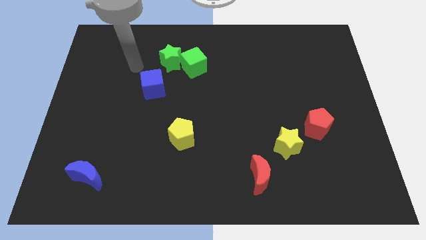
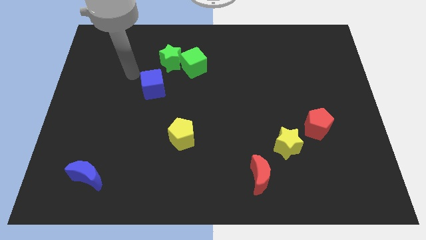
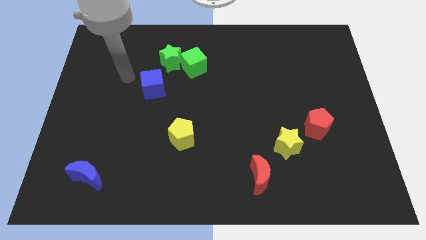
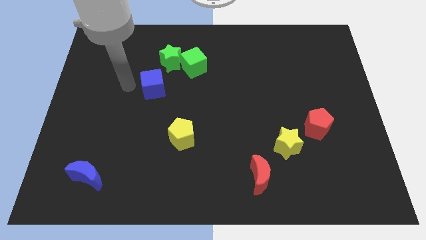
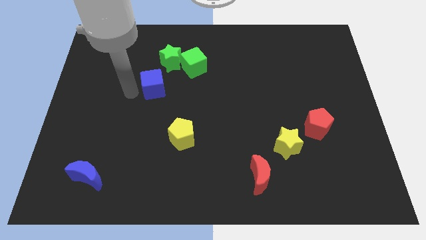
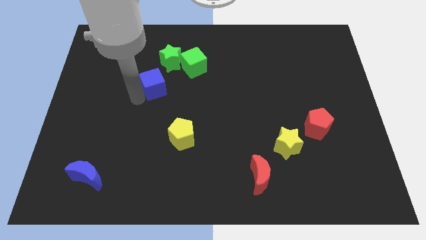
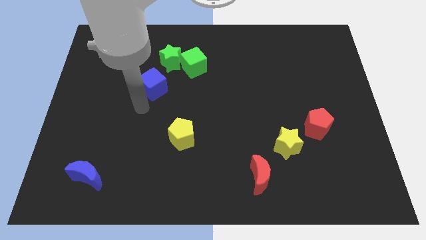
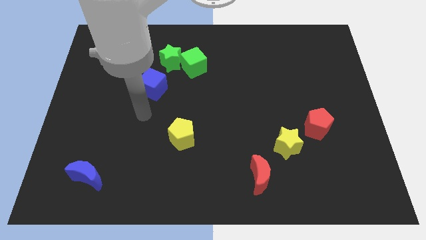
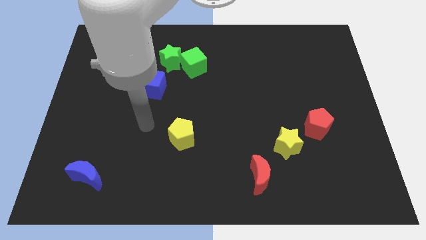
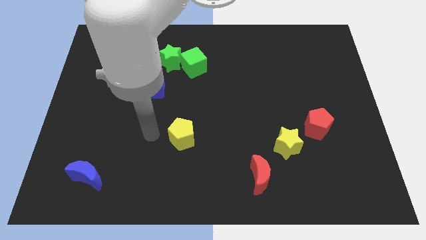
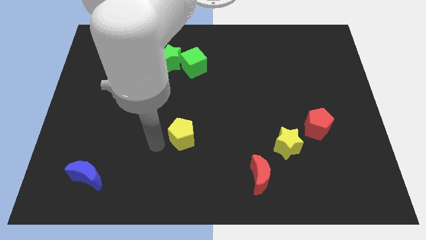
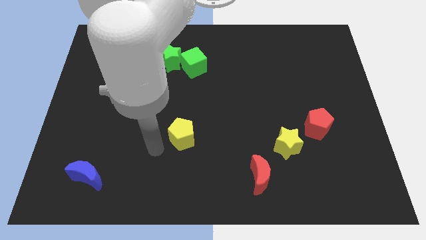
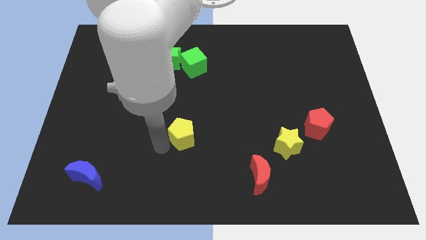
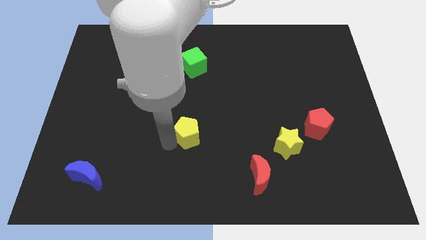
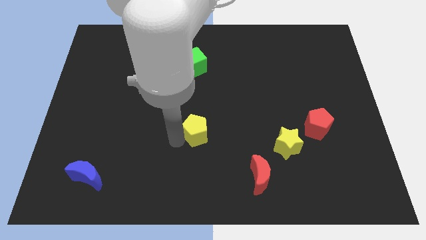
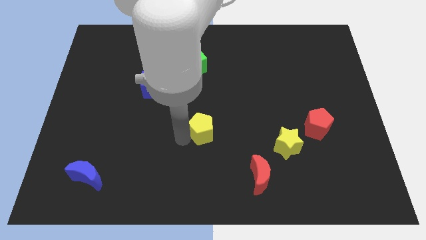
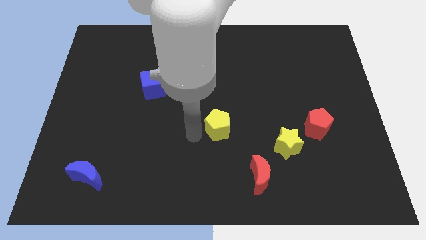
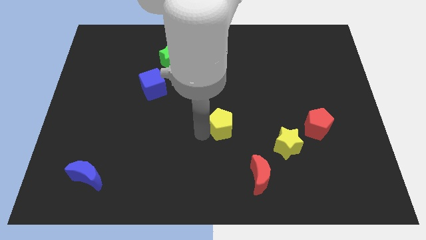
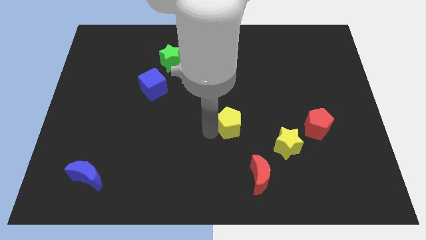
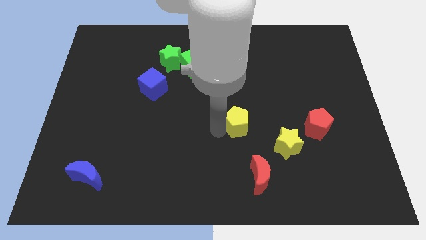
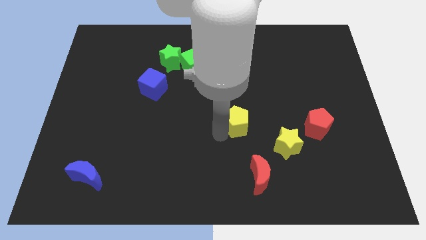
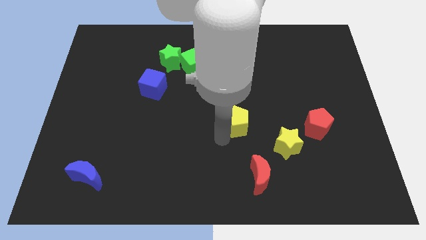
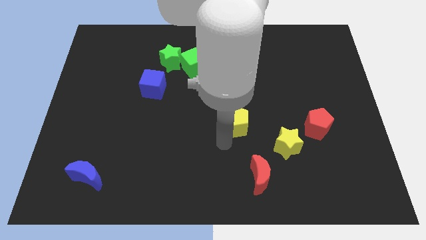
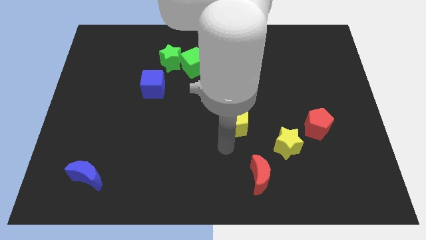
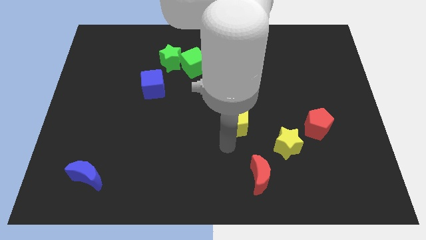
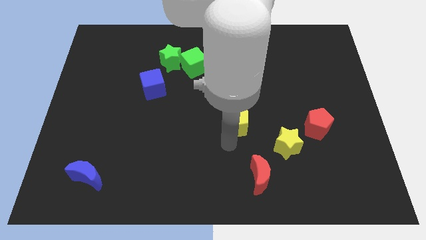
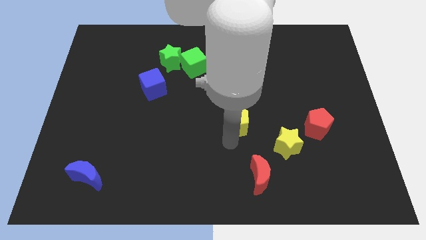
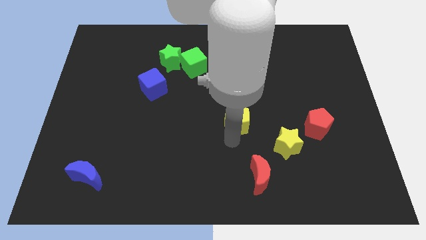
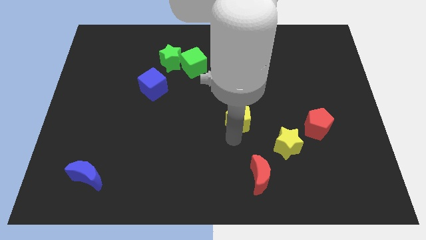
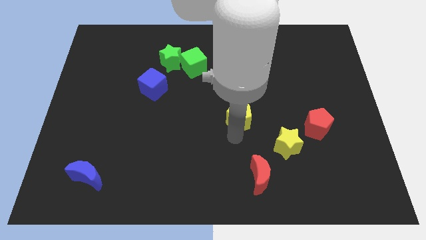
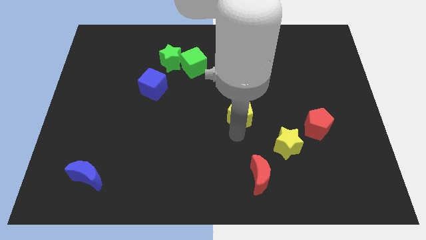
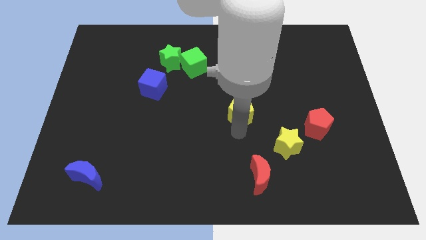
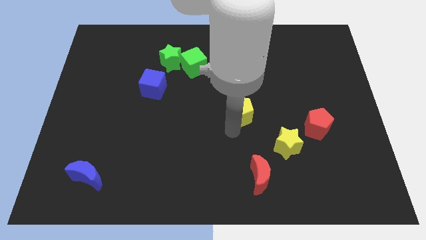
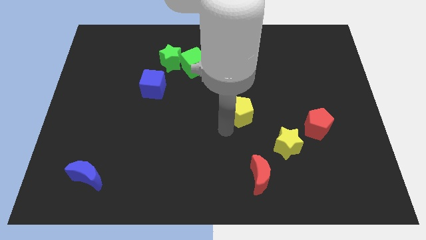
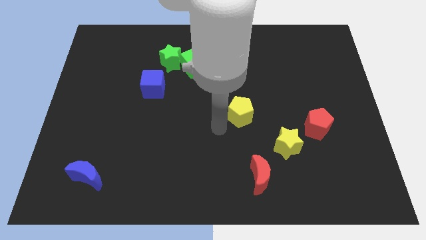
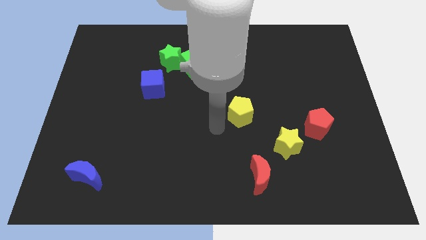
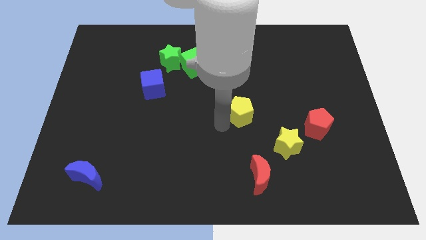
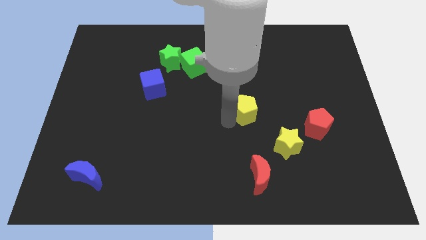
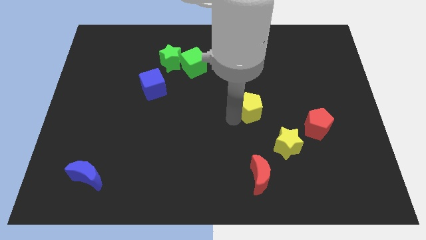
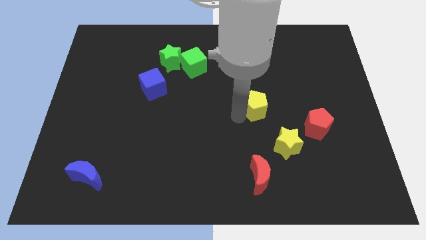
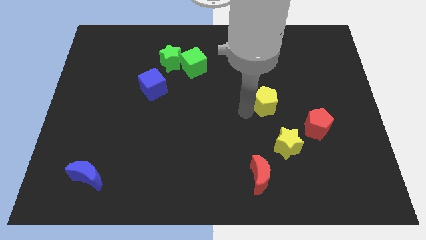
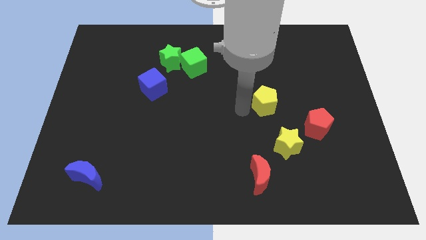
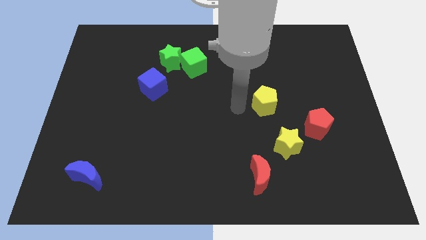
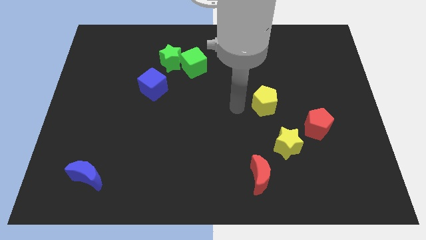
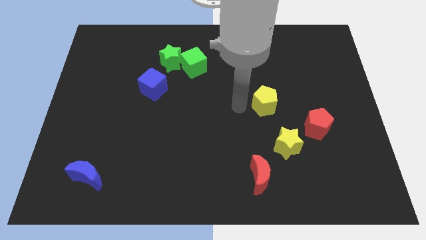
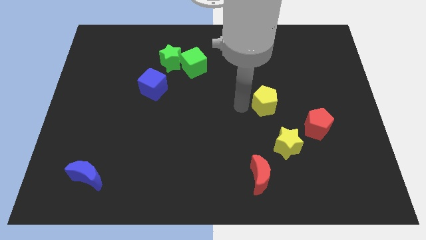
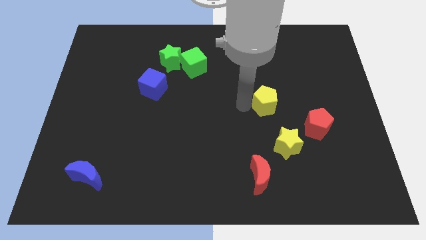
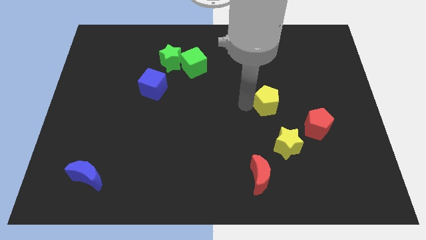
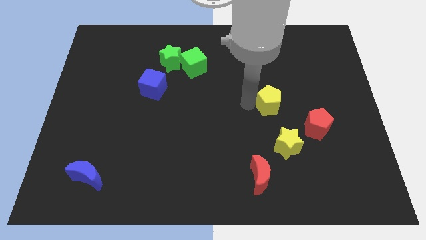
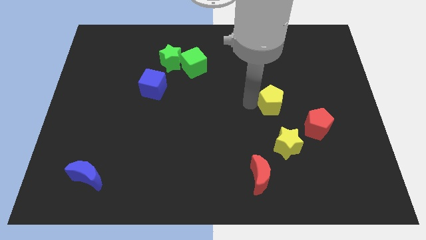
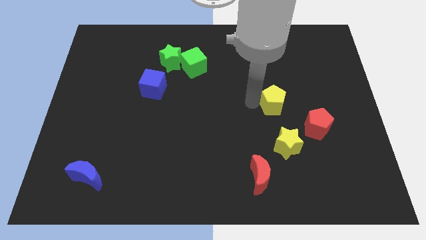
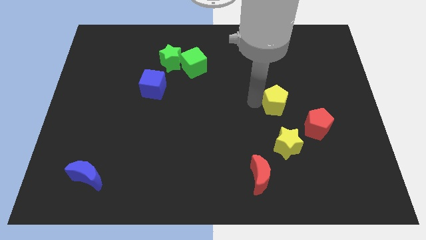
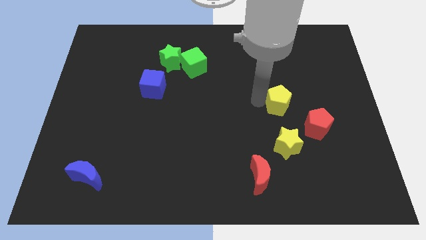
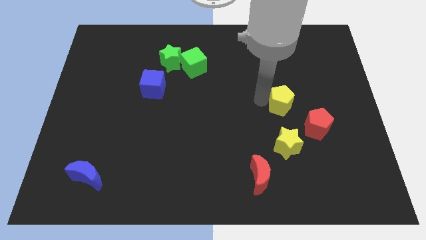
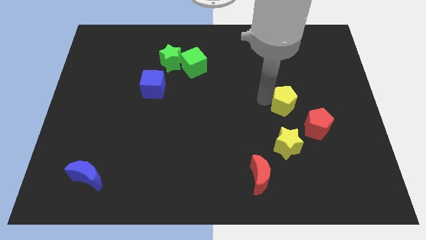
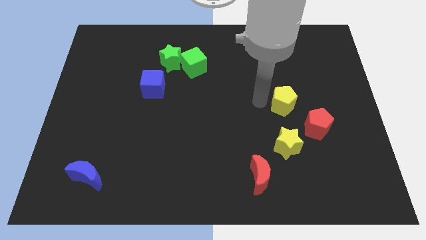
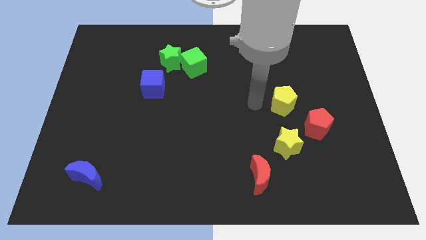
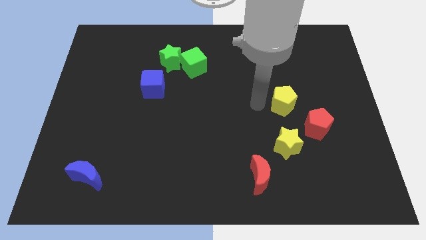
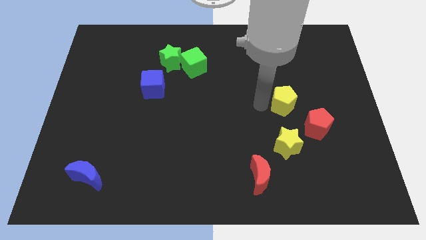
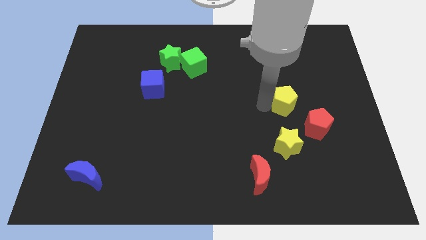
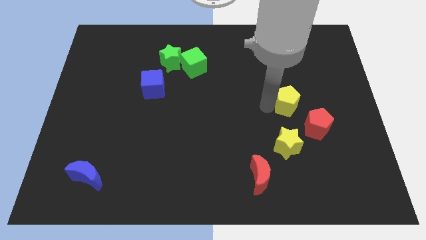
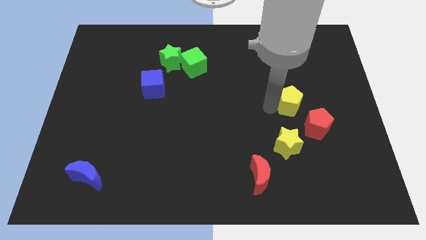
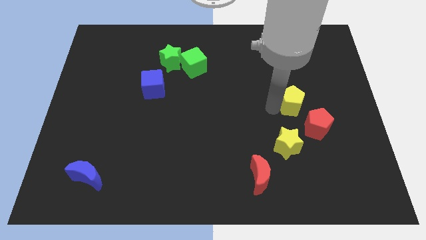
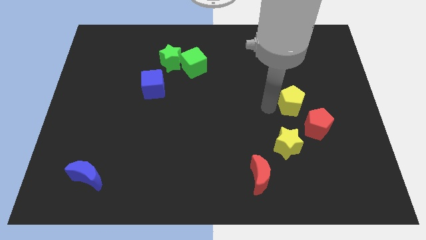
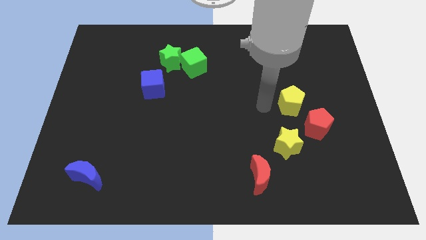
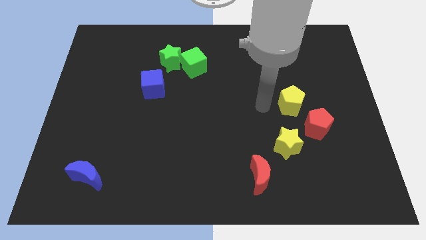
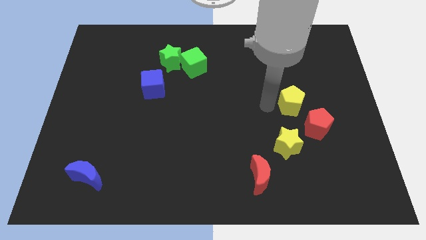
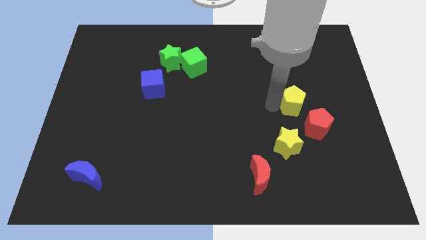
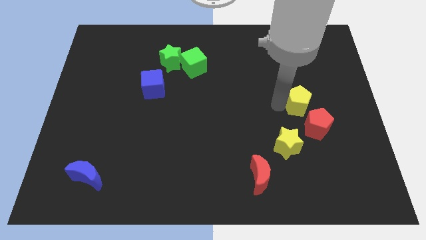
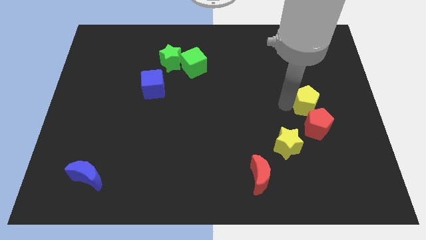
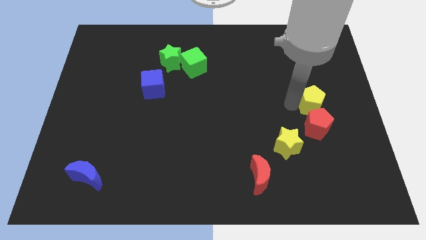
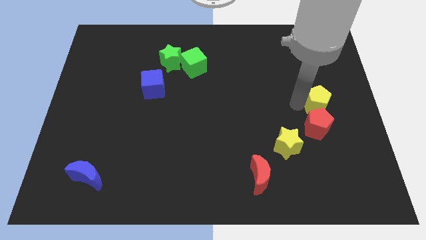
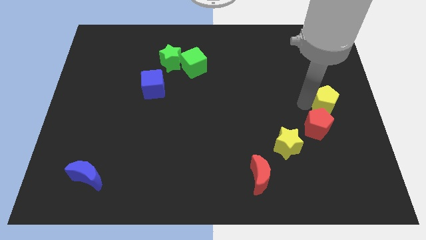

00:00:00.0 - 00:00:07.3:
slide the yellow pentagon to the right side of the board

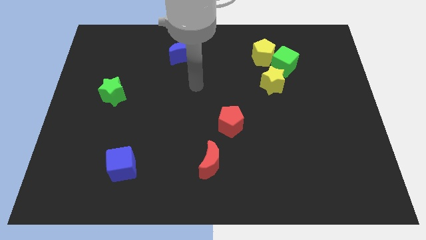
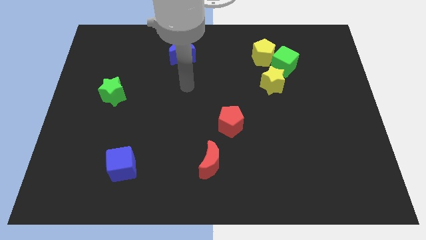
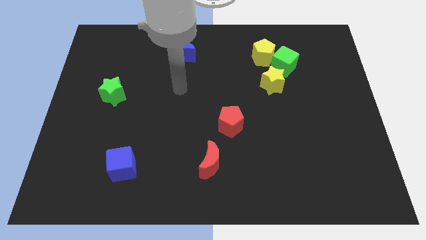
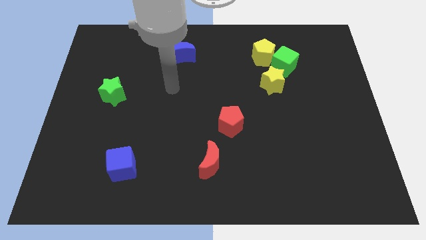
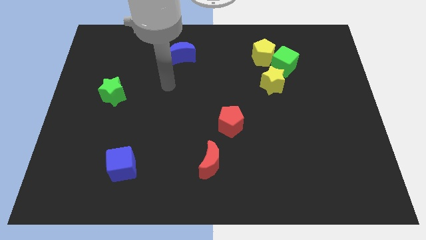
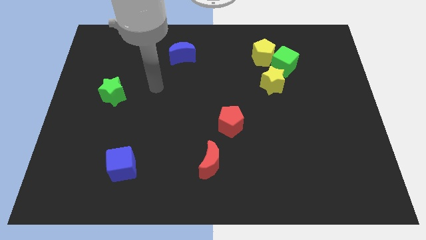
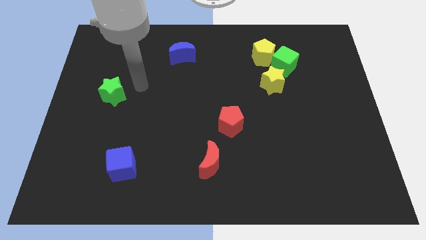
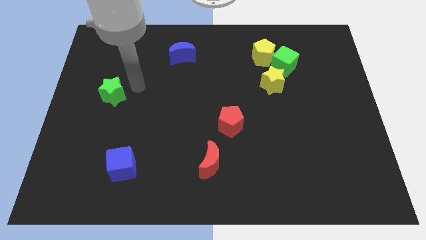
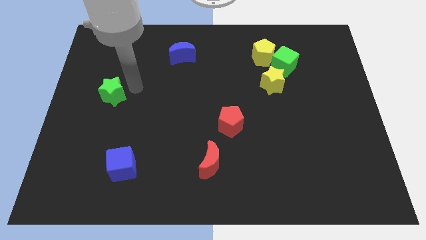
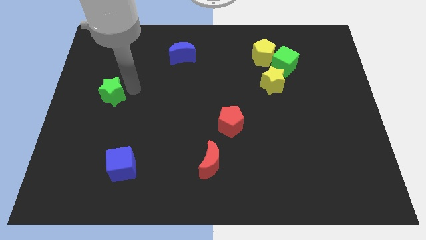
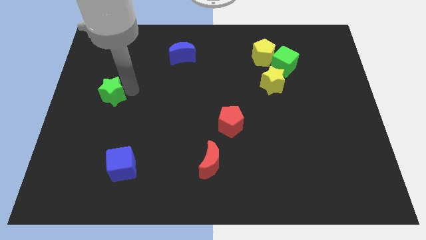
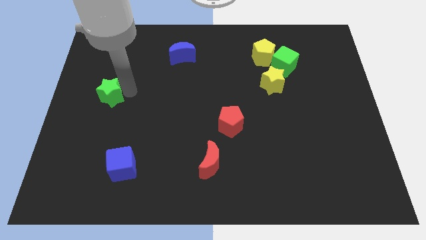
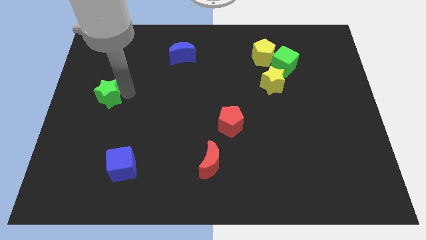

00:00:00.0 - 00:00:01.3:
slide the green star to the left side of the board
